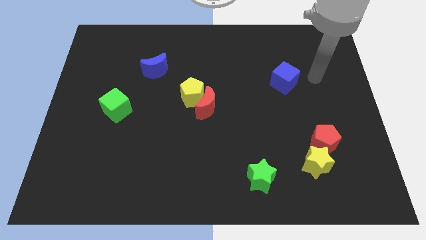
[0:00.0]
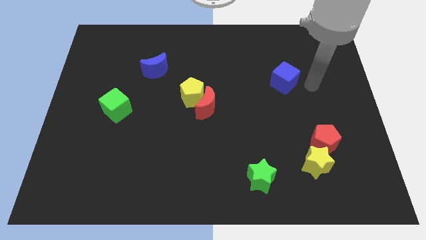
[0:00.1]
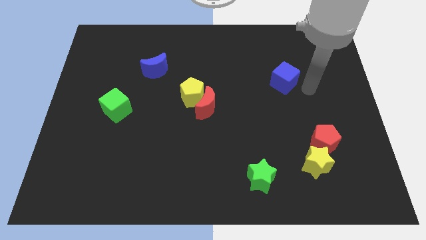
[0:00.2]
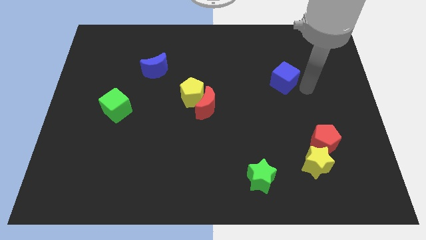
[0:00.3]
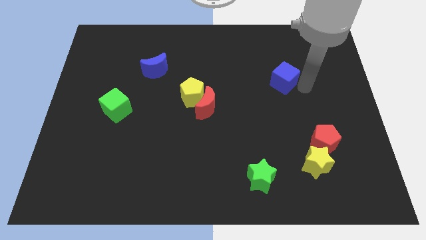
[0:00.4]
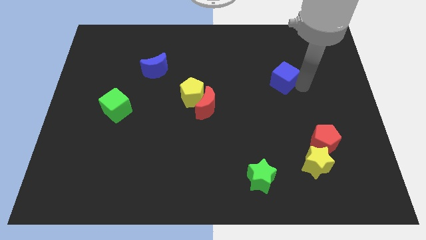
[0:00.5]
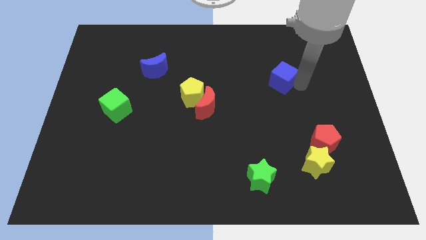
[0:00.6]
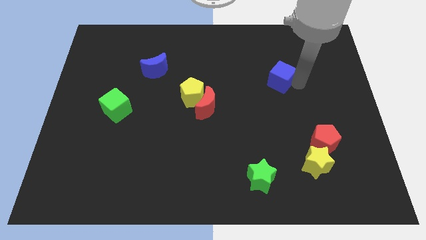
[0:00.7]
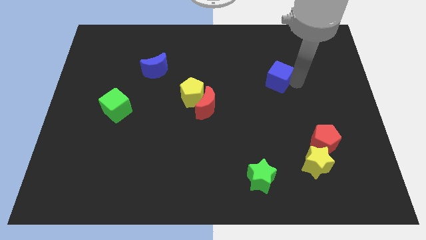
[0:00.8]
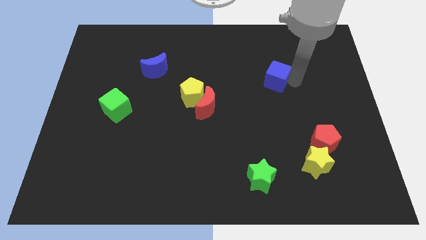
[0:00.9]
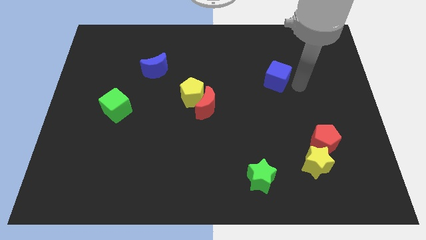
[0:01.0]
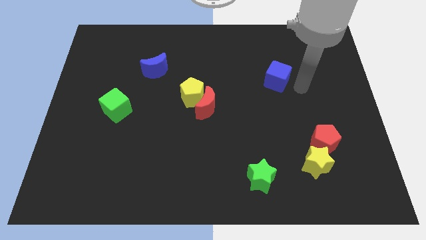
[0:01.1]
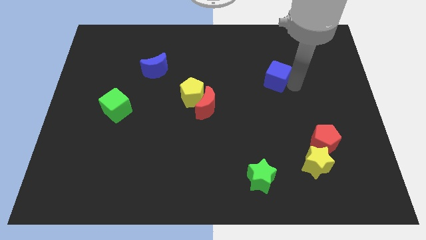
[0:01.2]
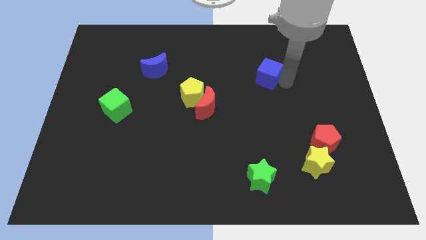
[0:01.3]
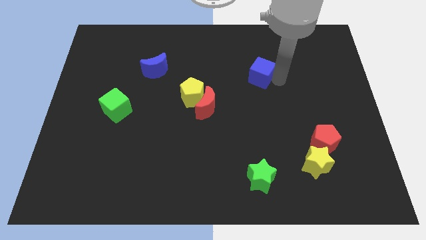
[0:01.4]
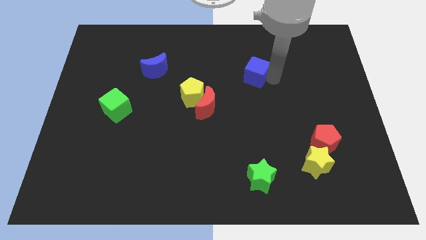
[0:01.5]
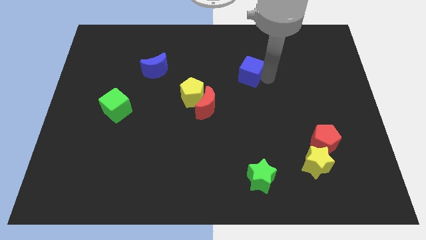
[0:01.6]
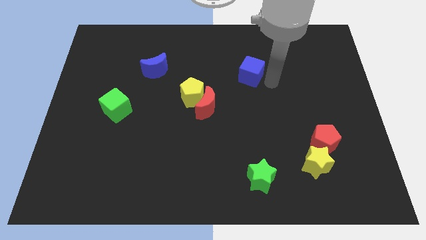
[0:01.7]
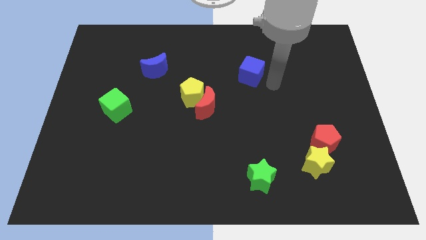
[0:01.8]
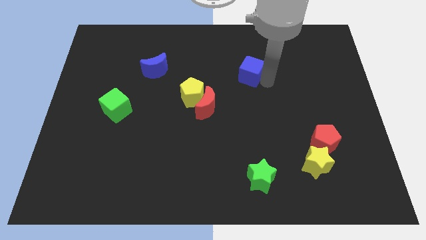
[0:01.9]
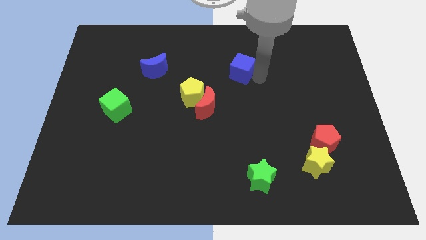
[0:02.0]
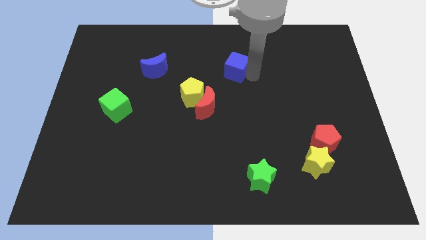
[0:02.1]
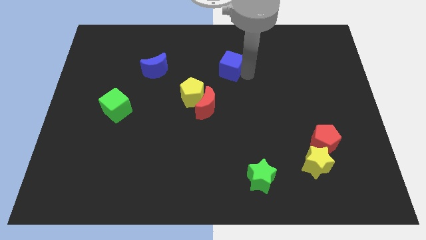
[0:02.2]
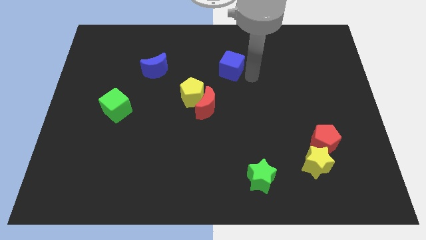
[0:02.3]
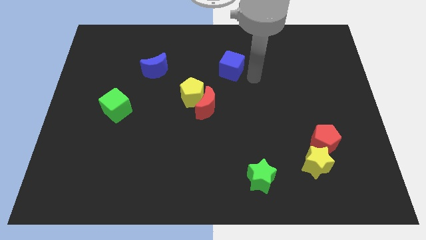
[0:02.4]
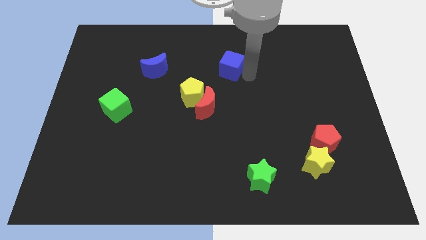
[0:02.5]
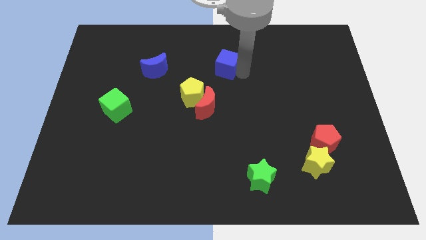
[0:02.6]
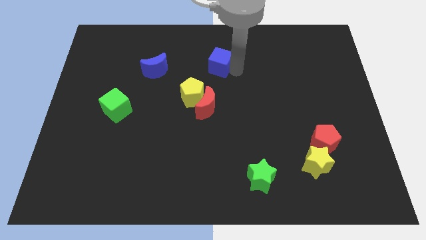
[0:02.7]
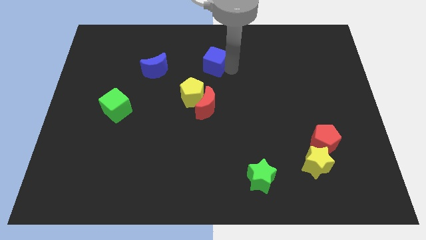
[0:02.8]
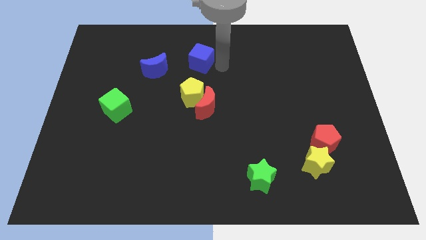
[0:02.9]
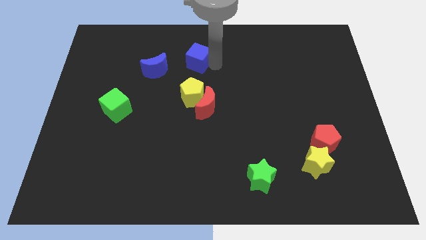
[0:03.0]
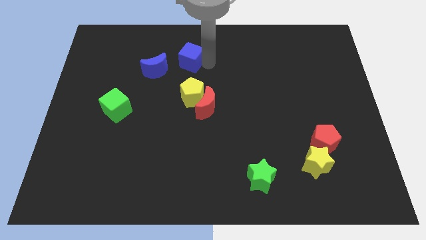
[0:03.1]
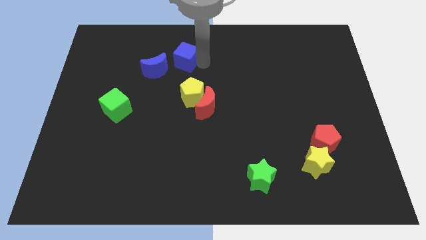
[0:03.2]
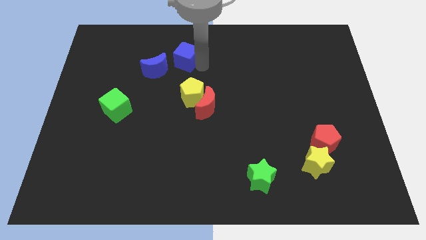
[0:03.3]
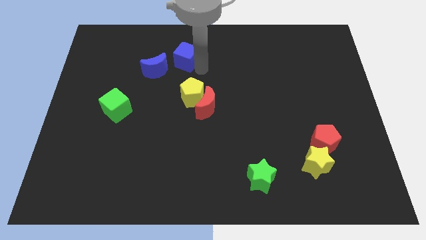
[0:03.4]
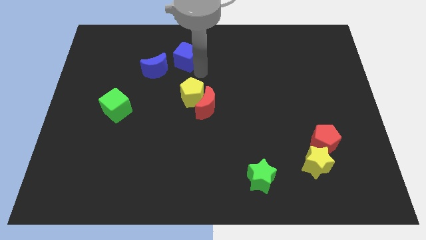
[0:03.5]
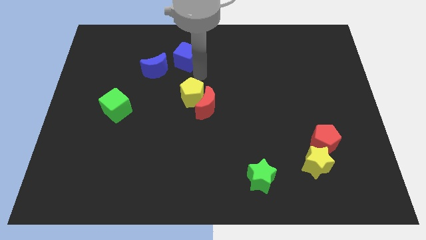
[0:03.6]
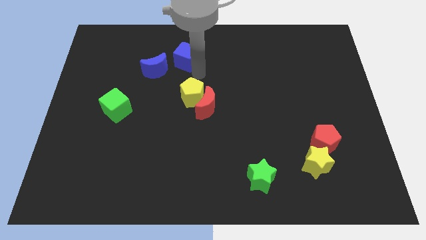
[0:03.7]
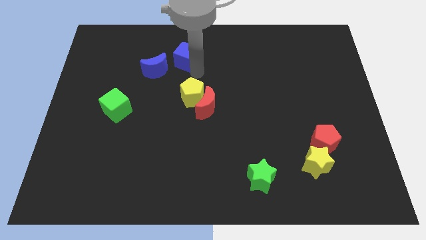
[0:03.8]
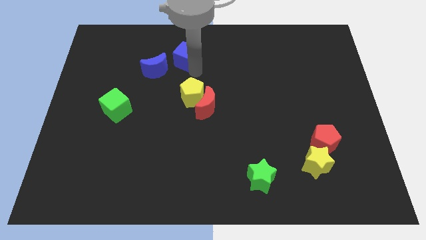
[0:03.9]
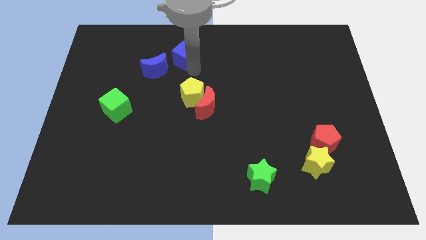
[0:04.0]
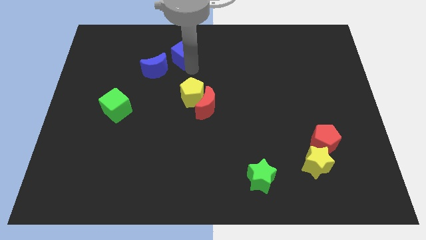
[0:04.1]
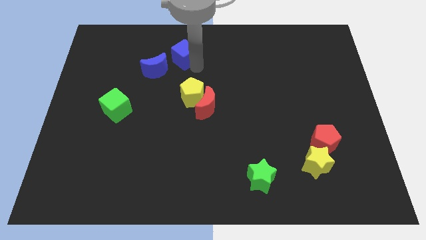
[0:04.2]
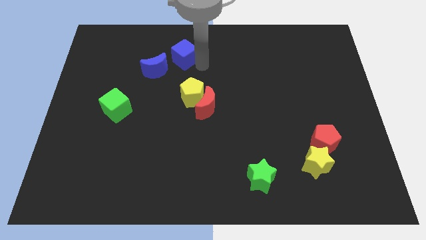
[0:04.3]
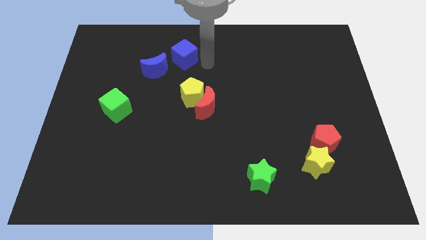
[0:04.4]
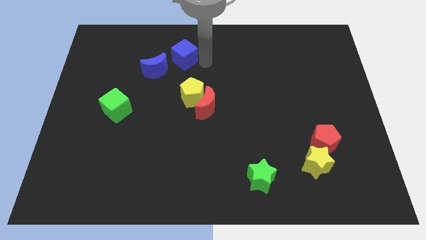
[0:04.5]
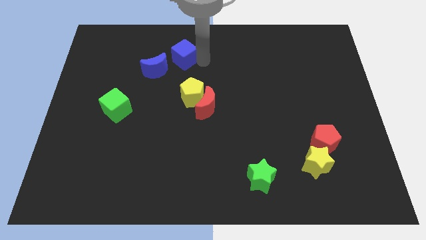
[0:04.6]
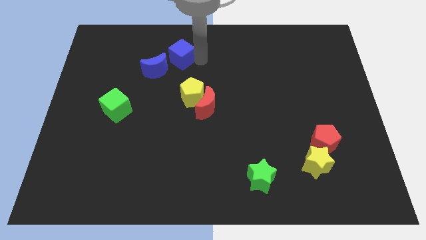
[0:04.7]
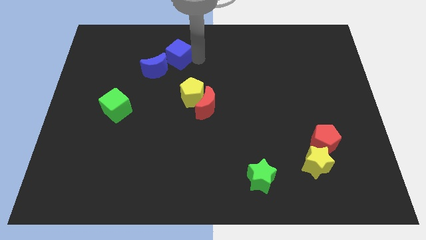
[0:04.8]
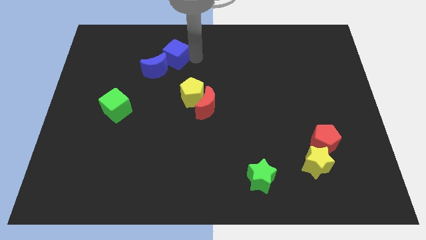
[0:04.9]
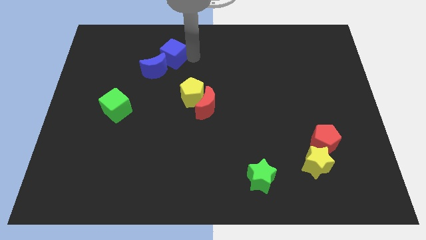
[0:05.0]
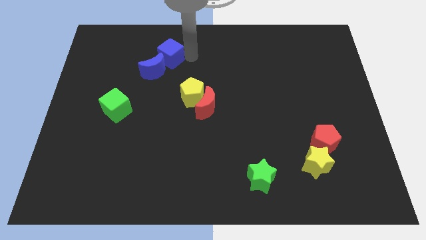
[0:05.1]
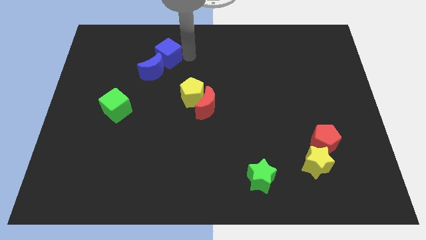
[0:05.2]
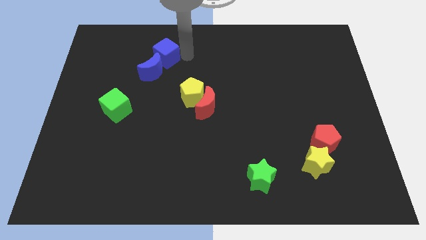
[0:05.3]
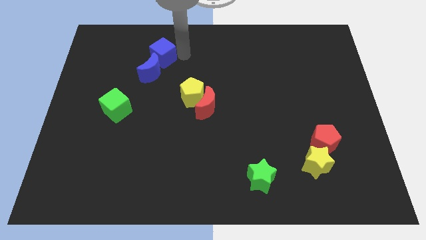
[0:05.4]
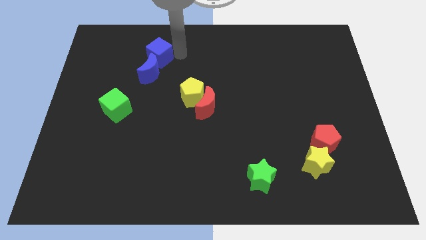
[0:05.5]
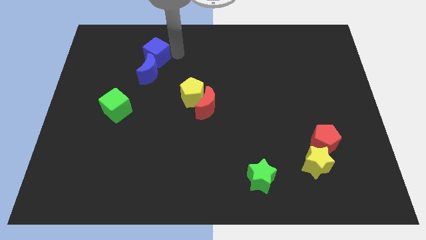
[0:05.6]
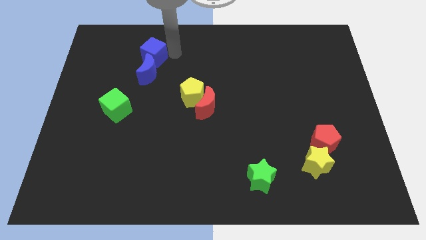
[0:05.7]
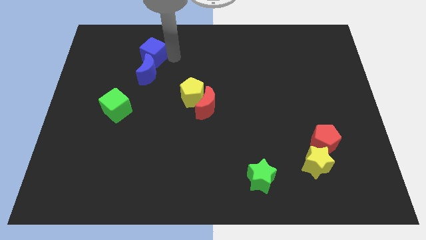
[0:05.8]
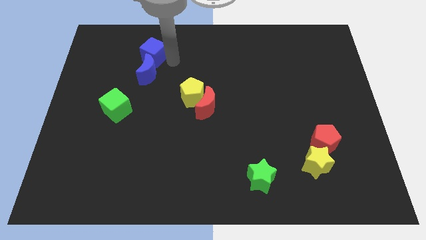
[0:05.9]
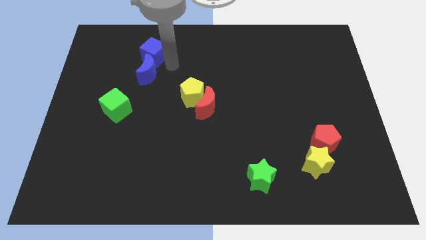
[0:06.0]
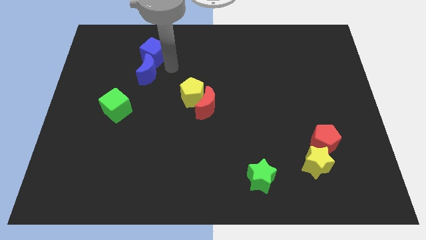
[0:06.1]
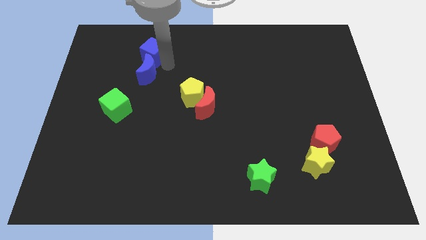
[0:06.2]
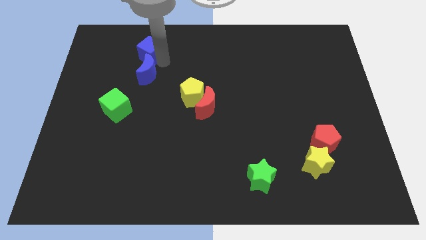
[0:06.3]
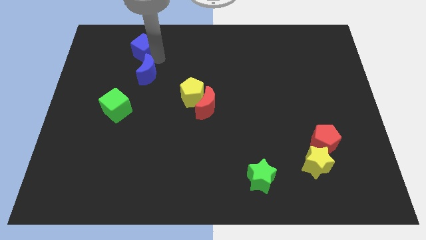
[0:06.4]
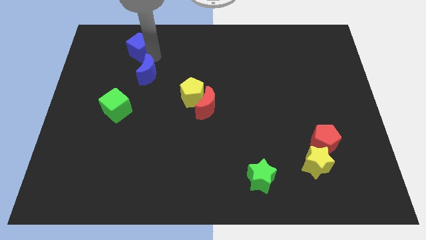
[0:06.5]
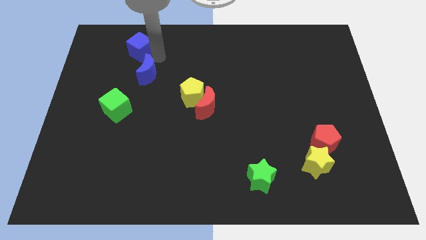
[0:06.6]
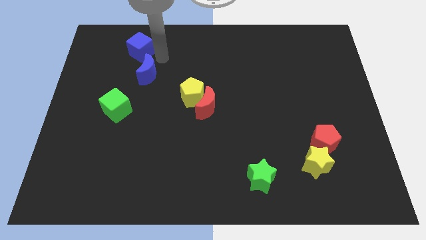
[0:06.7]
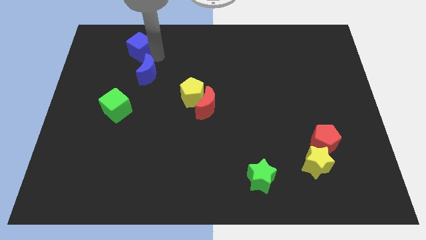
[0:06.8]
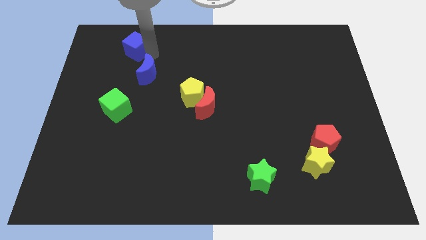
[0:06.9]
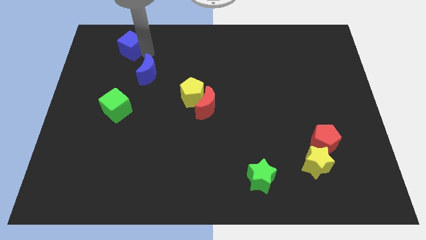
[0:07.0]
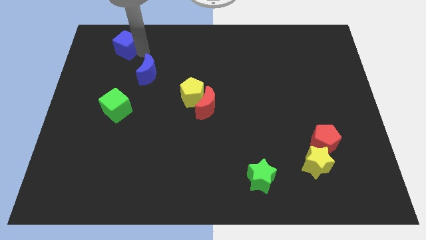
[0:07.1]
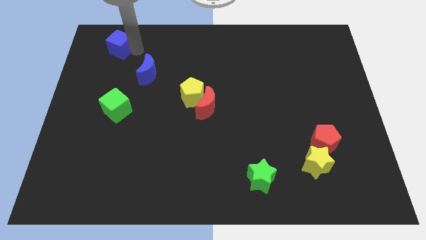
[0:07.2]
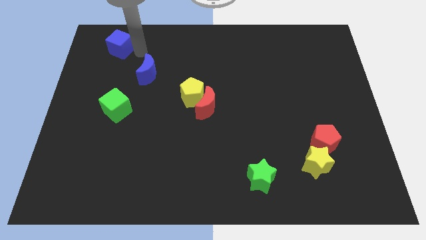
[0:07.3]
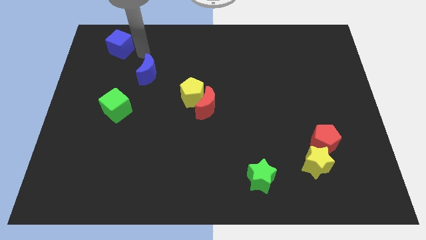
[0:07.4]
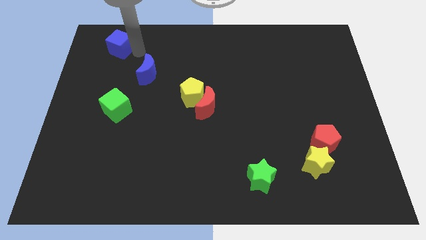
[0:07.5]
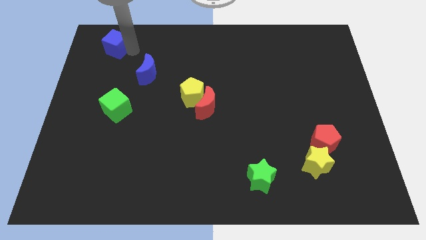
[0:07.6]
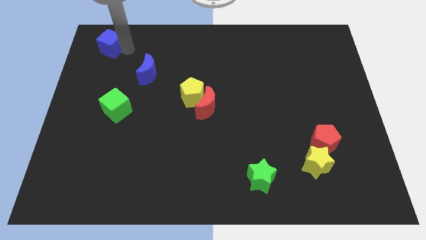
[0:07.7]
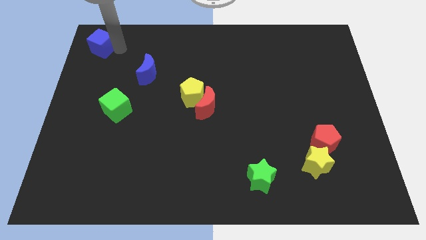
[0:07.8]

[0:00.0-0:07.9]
slide the blue cube to the top left of the board
